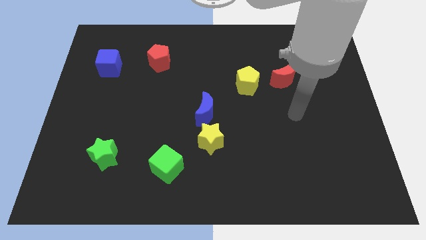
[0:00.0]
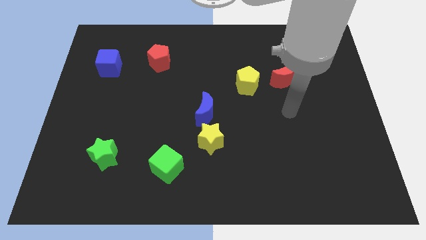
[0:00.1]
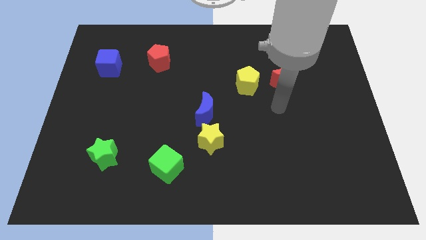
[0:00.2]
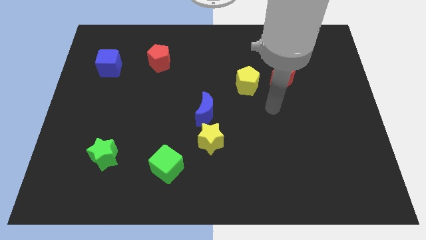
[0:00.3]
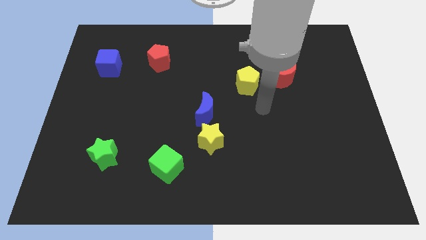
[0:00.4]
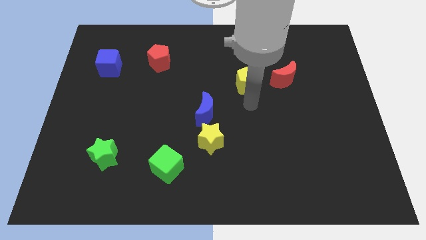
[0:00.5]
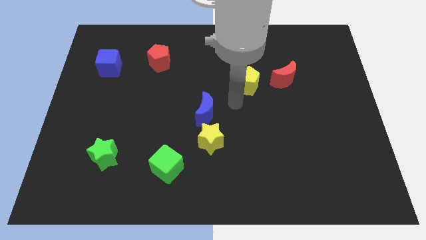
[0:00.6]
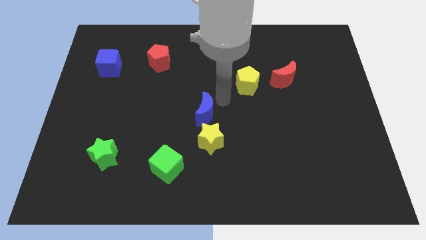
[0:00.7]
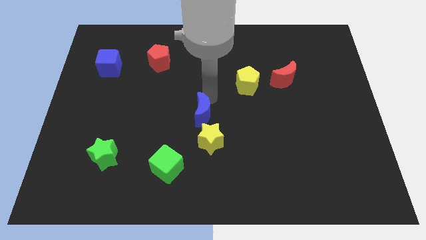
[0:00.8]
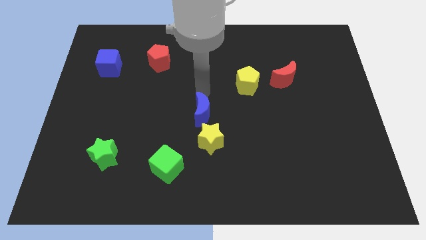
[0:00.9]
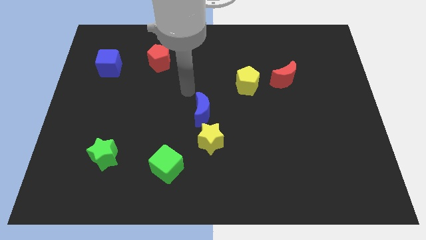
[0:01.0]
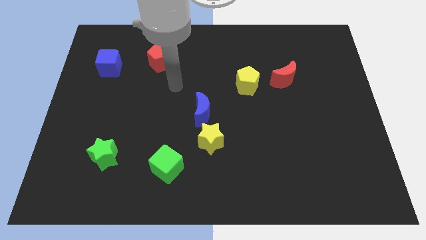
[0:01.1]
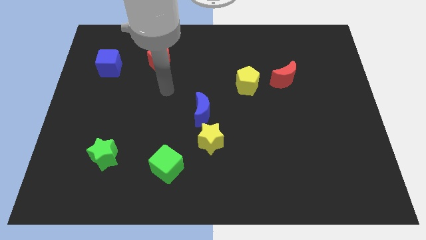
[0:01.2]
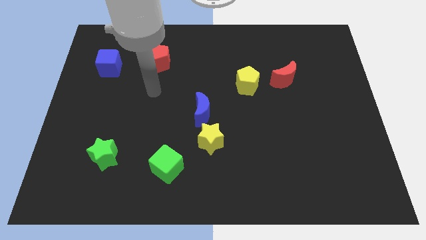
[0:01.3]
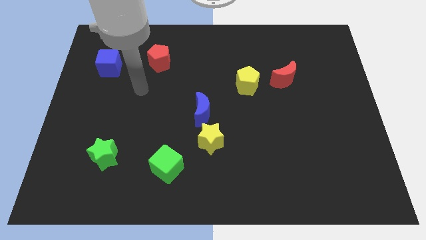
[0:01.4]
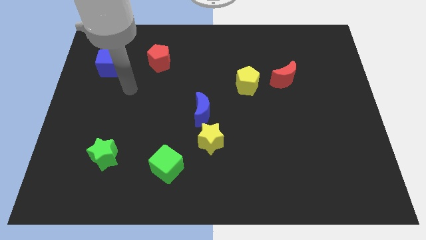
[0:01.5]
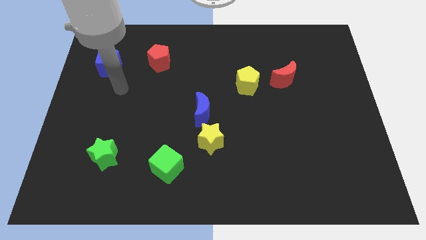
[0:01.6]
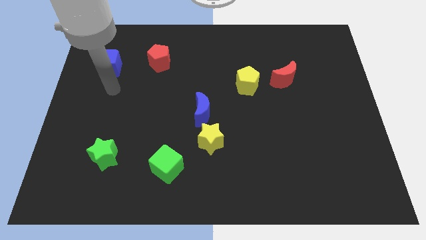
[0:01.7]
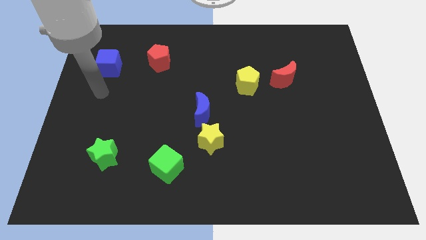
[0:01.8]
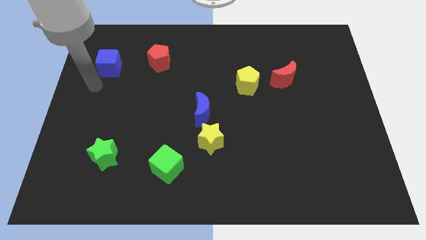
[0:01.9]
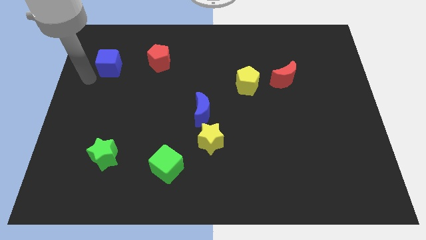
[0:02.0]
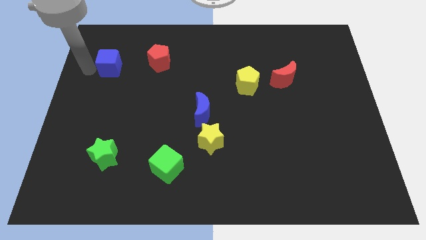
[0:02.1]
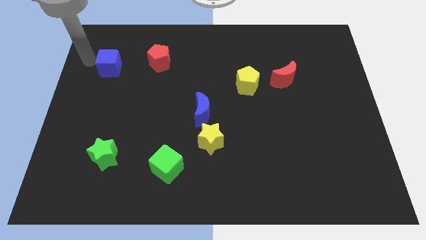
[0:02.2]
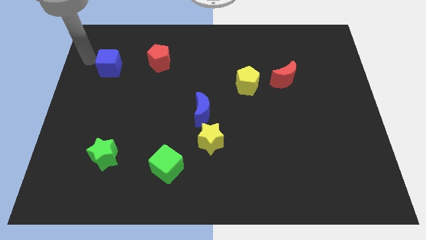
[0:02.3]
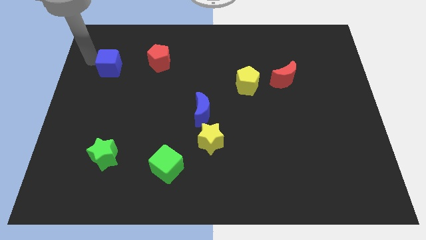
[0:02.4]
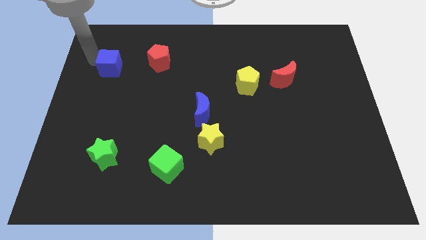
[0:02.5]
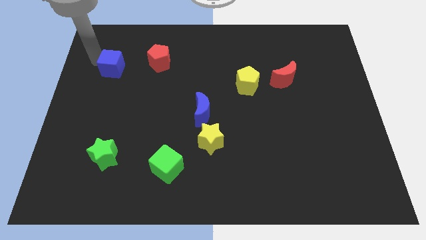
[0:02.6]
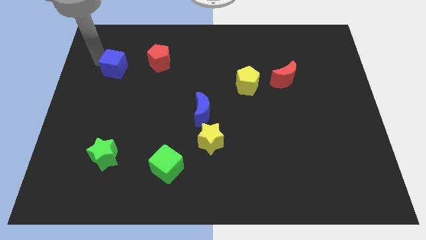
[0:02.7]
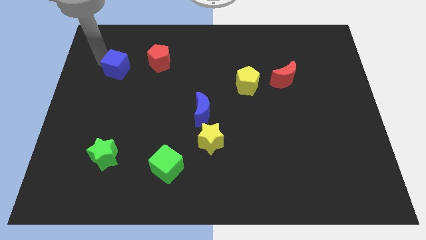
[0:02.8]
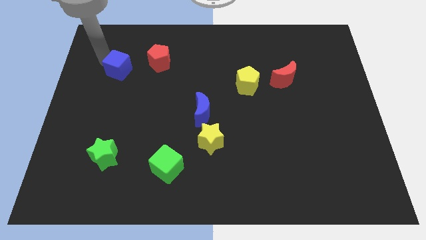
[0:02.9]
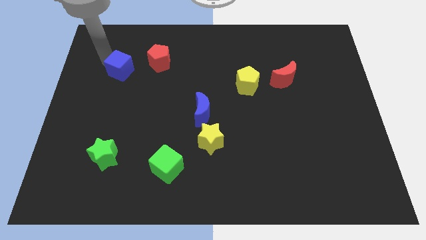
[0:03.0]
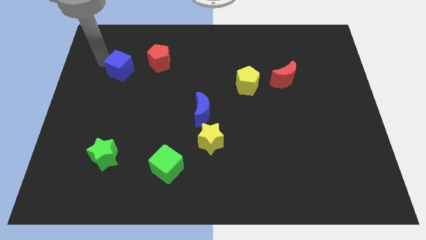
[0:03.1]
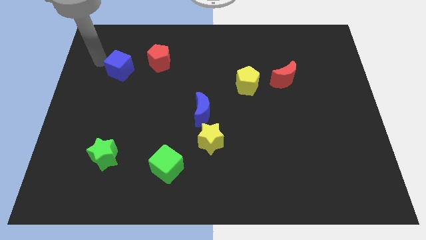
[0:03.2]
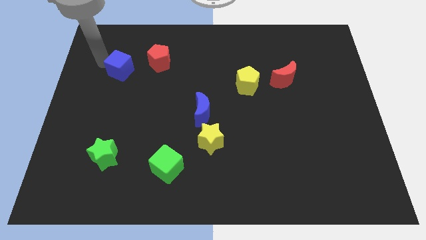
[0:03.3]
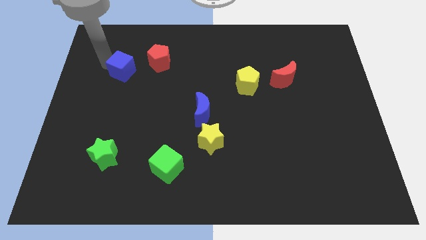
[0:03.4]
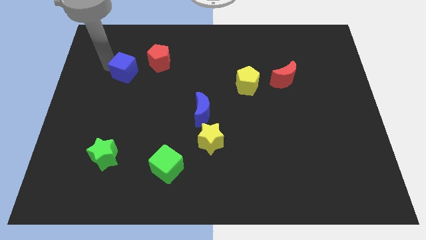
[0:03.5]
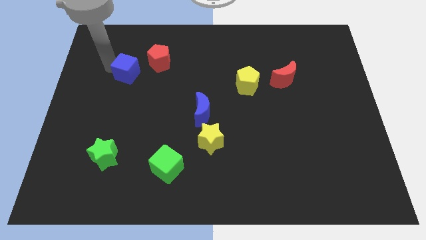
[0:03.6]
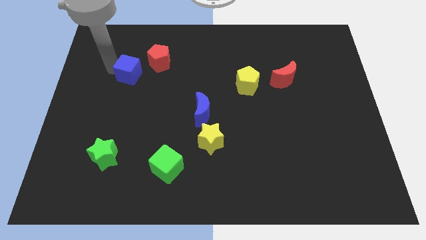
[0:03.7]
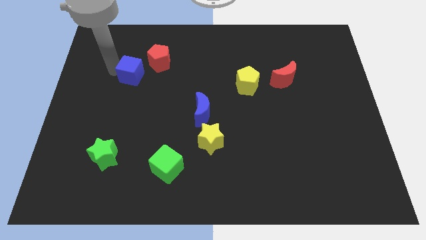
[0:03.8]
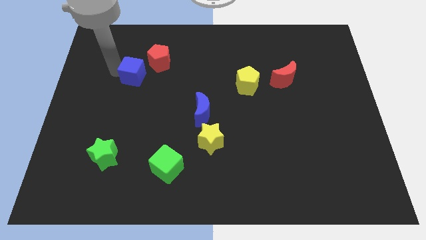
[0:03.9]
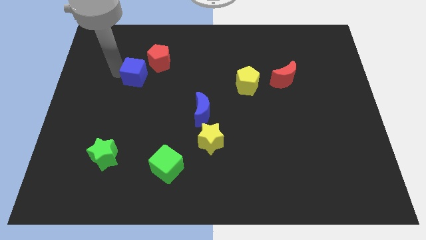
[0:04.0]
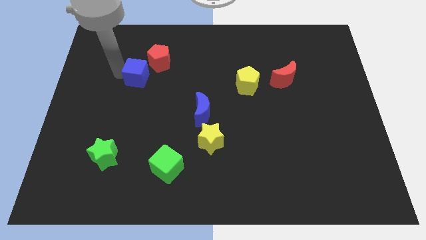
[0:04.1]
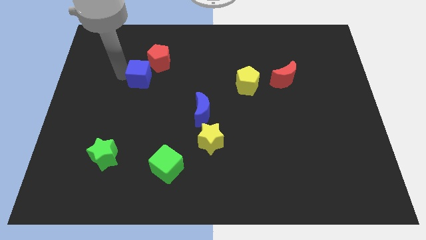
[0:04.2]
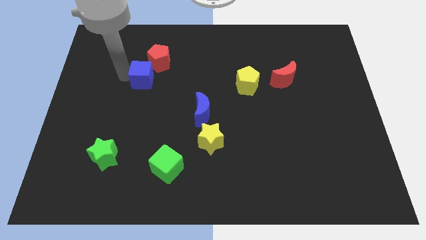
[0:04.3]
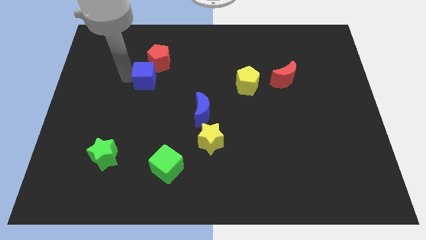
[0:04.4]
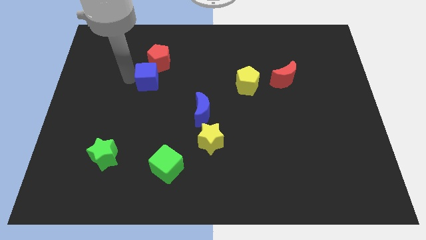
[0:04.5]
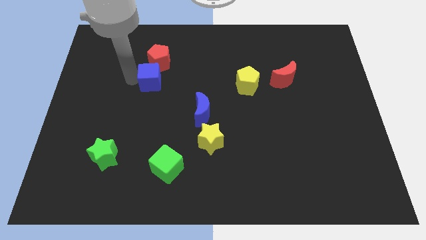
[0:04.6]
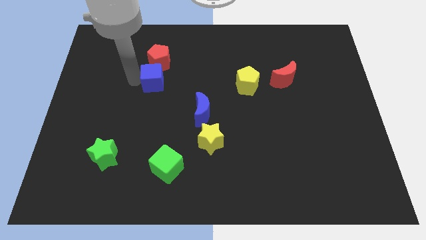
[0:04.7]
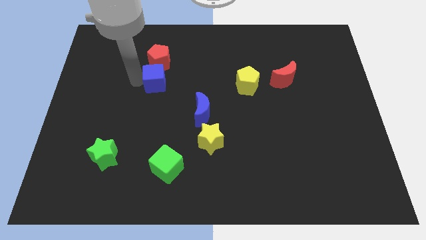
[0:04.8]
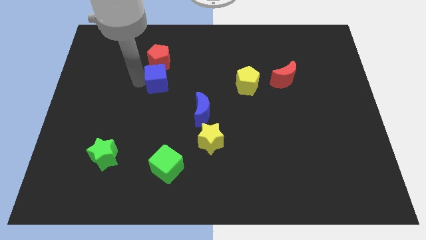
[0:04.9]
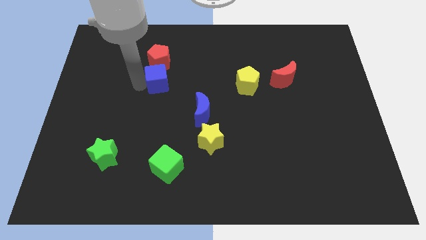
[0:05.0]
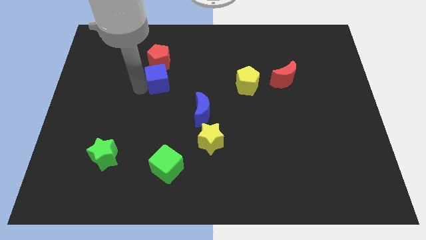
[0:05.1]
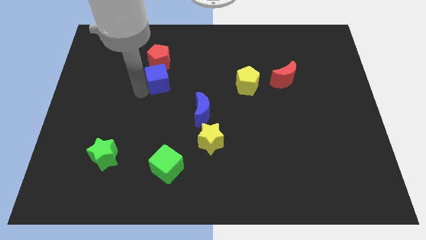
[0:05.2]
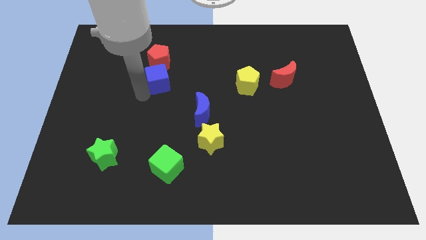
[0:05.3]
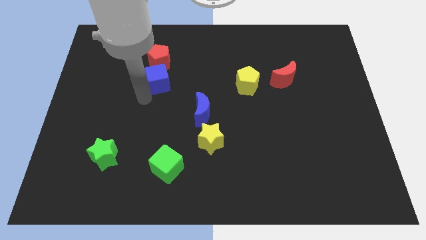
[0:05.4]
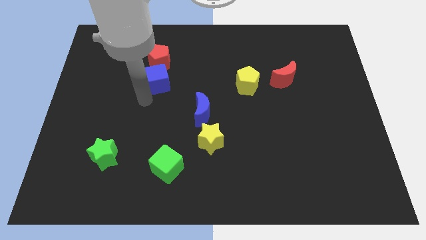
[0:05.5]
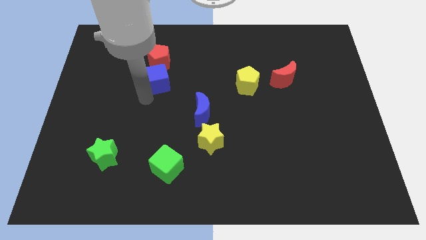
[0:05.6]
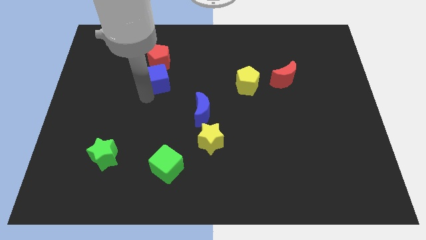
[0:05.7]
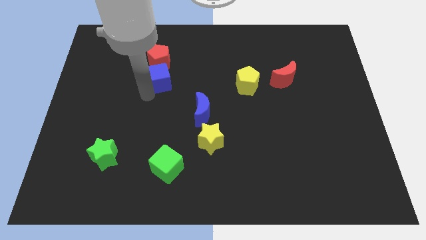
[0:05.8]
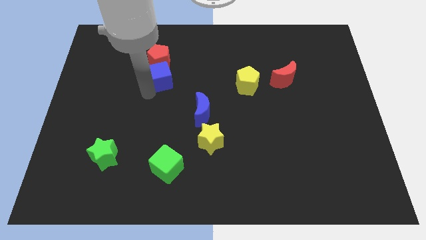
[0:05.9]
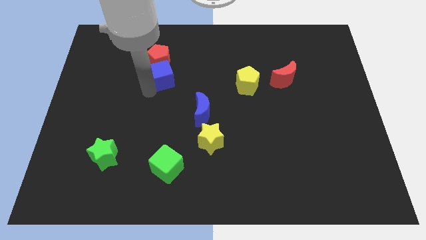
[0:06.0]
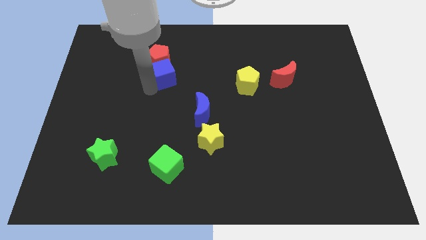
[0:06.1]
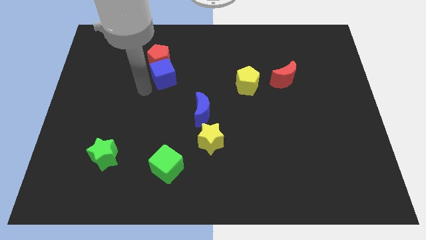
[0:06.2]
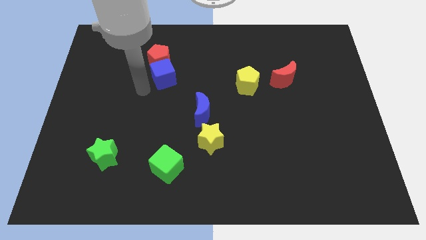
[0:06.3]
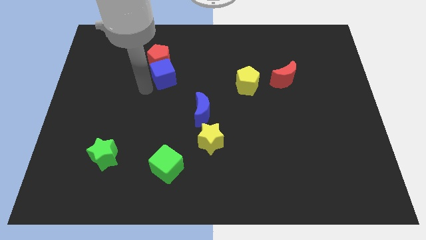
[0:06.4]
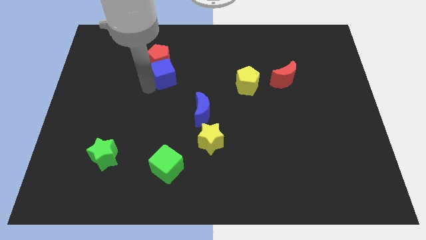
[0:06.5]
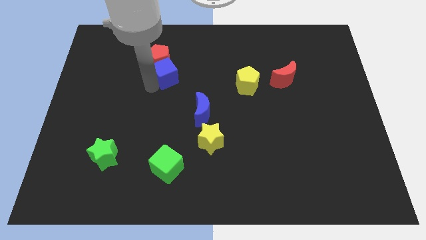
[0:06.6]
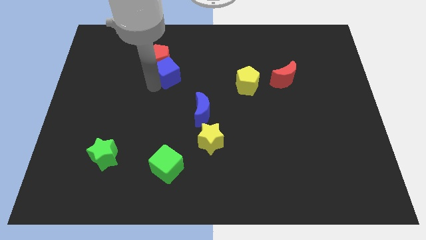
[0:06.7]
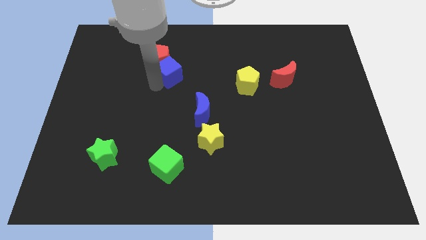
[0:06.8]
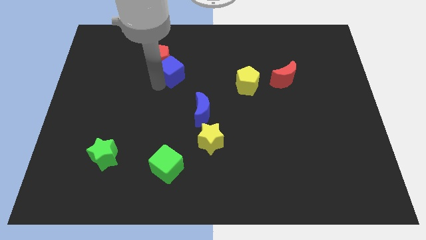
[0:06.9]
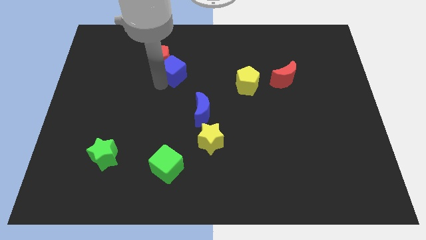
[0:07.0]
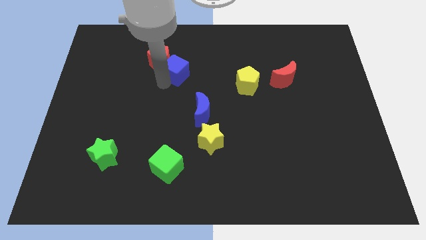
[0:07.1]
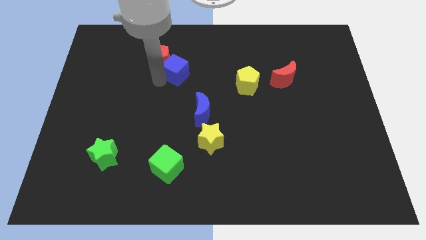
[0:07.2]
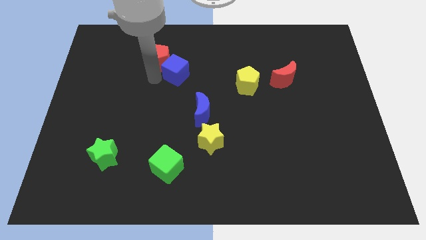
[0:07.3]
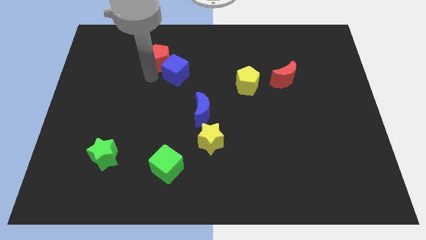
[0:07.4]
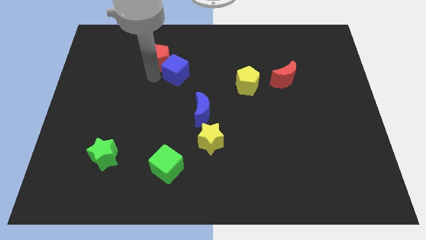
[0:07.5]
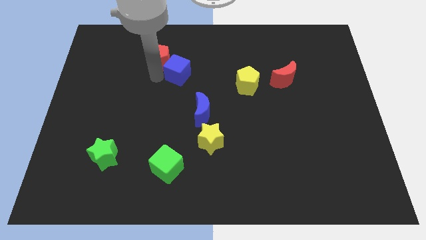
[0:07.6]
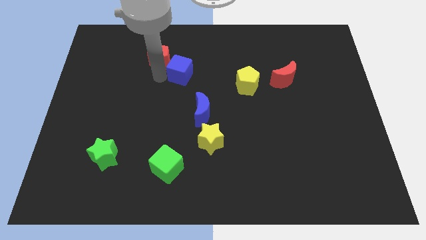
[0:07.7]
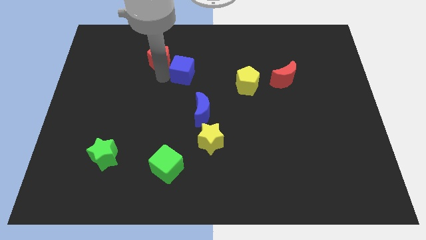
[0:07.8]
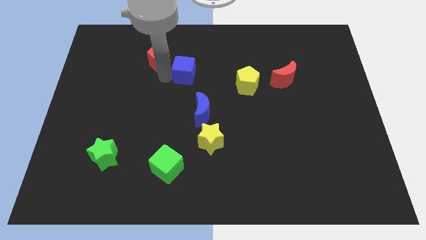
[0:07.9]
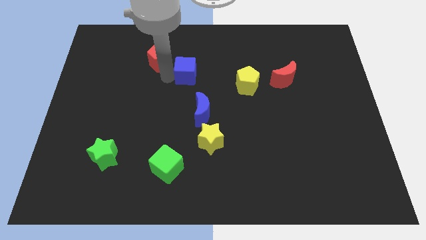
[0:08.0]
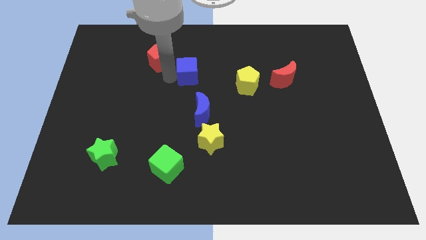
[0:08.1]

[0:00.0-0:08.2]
slide the blue cube to the right
